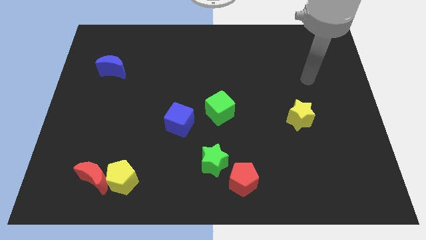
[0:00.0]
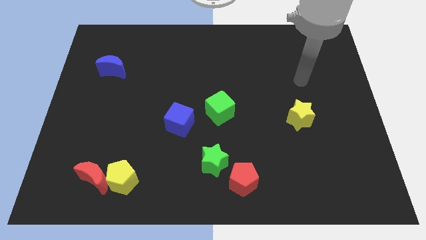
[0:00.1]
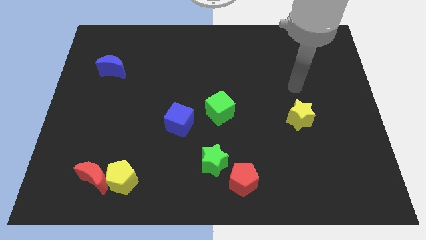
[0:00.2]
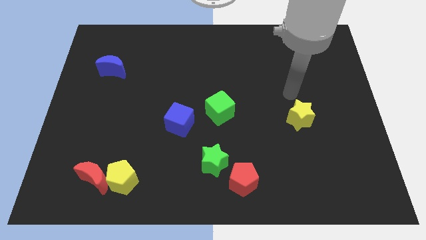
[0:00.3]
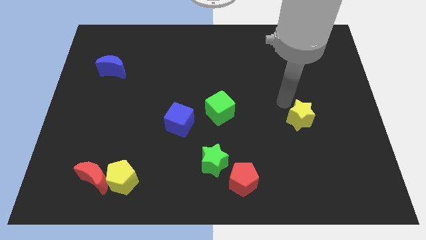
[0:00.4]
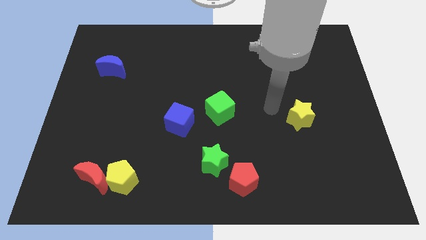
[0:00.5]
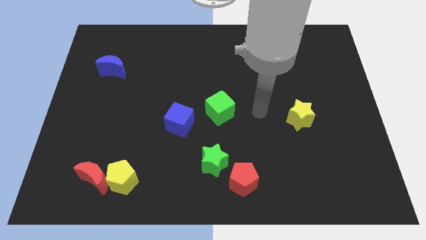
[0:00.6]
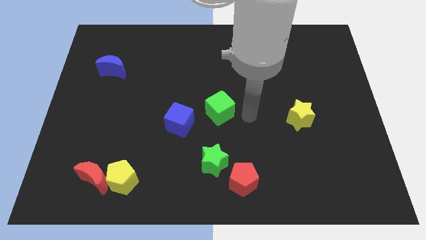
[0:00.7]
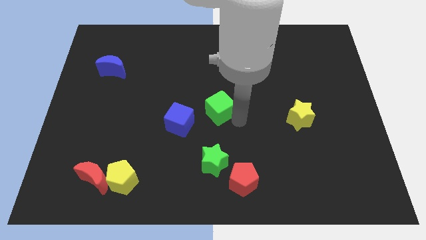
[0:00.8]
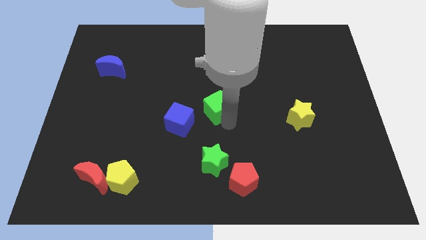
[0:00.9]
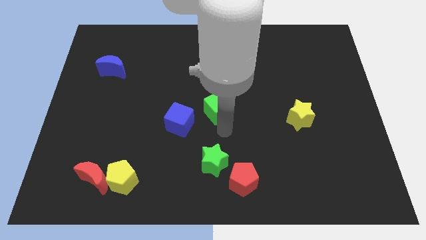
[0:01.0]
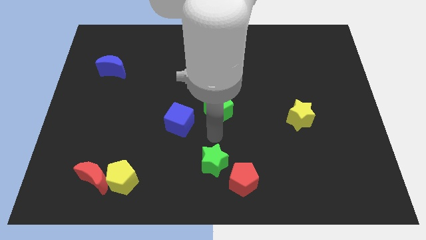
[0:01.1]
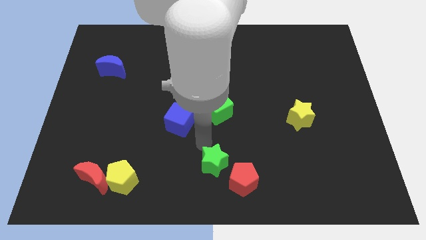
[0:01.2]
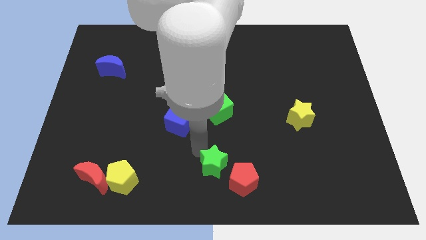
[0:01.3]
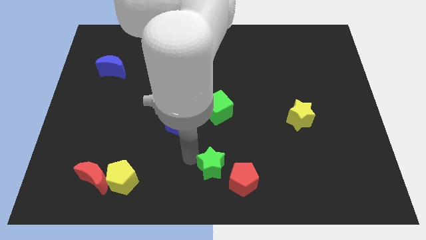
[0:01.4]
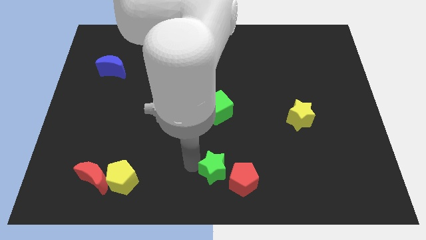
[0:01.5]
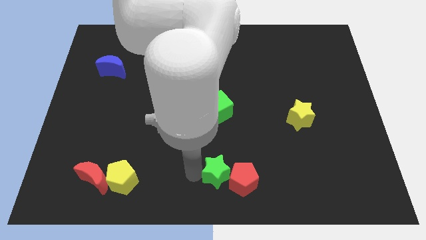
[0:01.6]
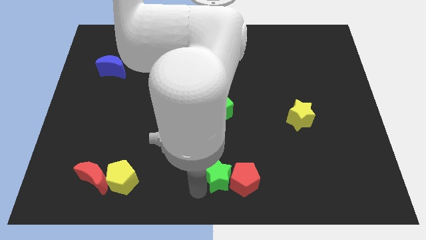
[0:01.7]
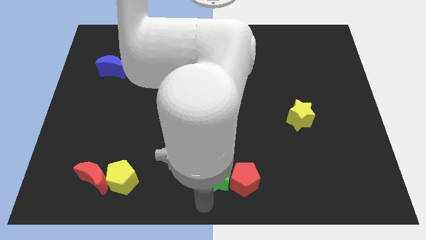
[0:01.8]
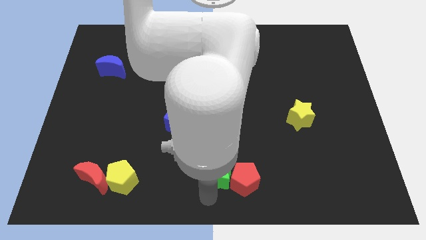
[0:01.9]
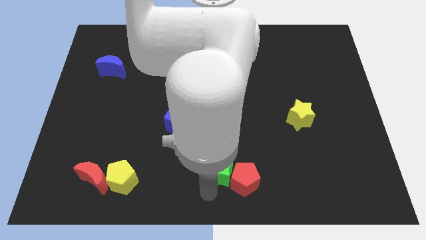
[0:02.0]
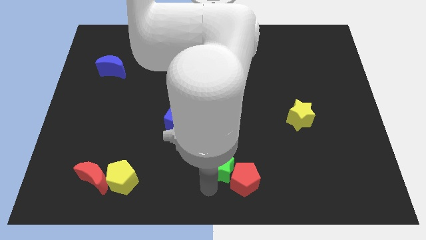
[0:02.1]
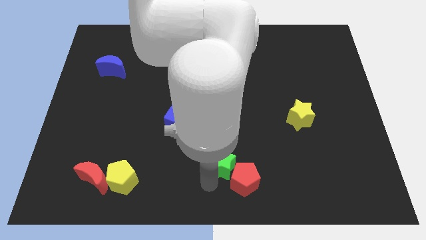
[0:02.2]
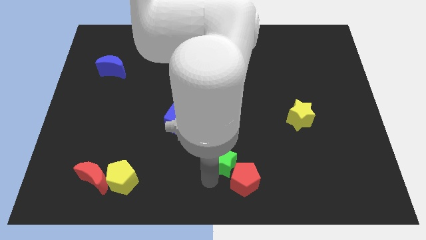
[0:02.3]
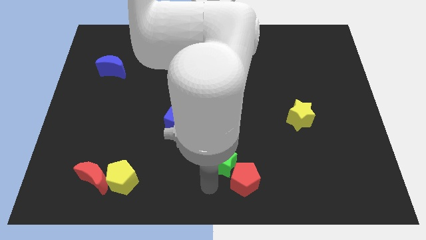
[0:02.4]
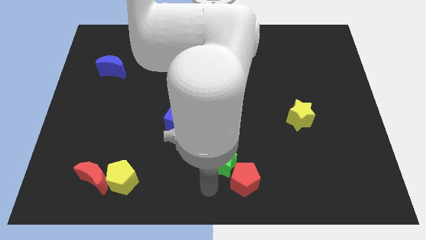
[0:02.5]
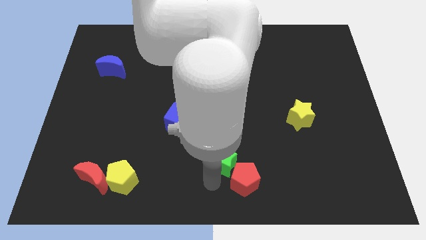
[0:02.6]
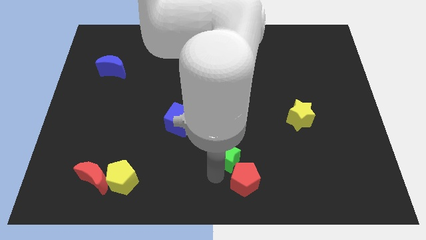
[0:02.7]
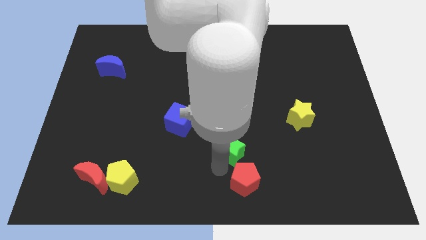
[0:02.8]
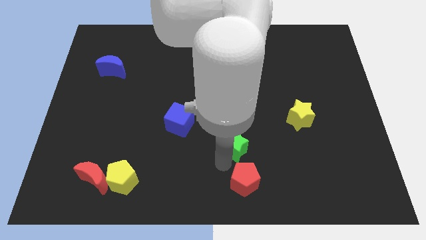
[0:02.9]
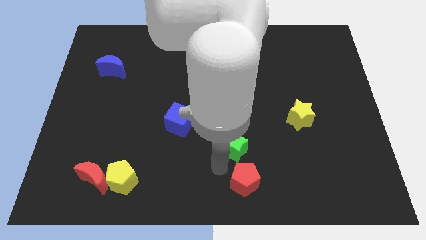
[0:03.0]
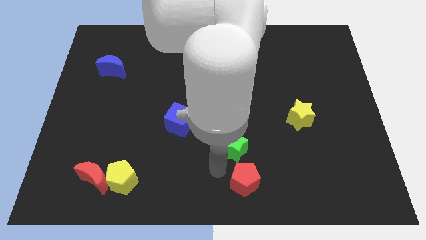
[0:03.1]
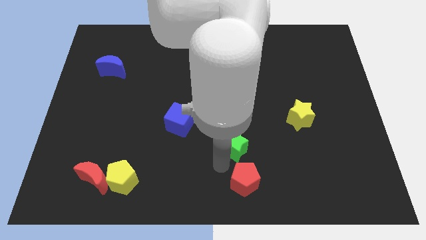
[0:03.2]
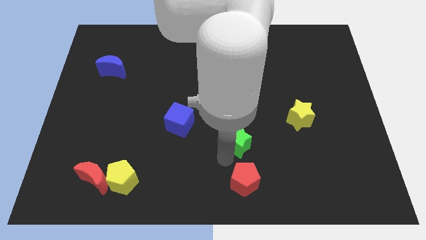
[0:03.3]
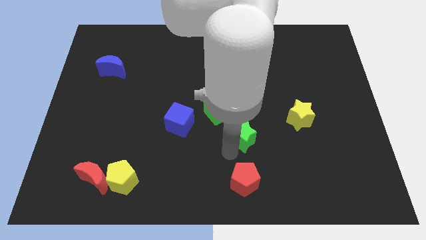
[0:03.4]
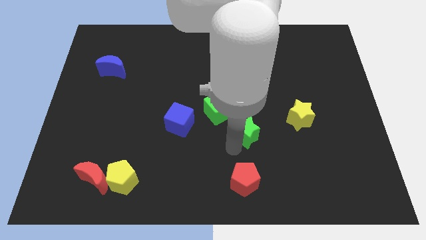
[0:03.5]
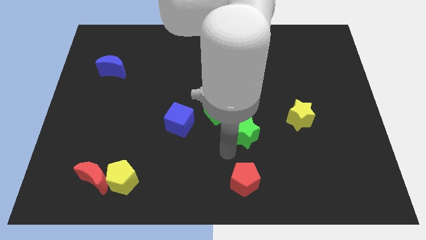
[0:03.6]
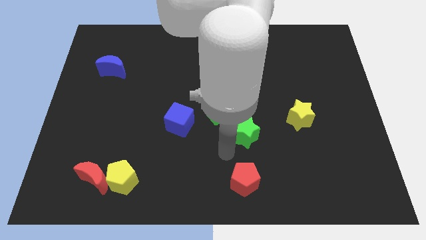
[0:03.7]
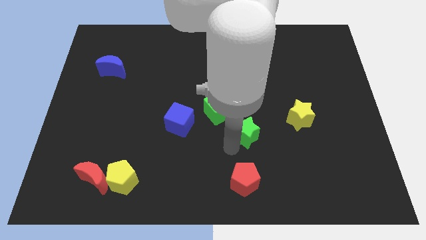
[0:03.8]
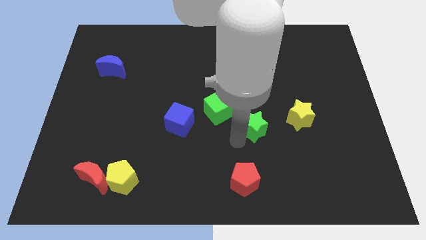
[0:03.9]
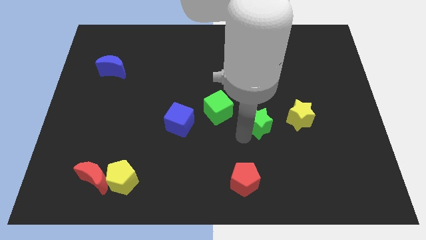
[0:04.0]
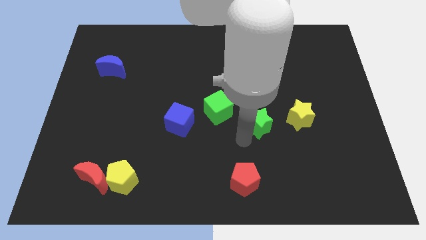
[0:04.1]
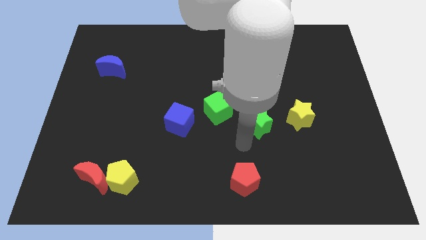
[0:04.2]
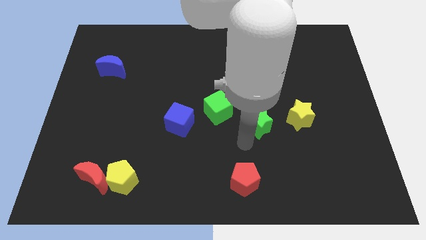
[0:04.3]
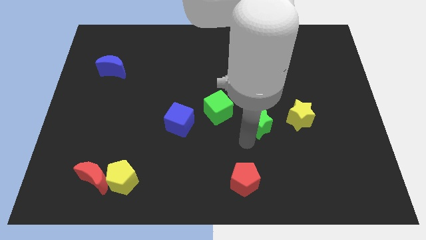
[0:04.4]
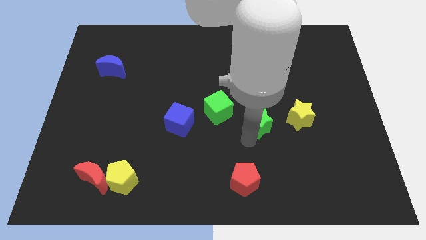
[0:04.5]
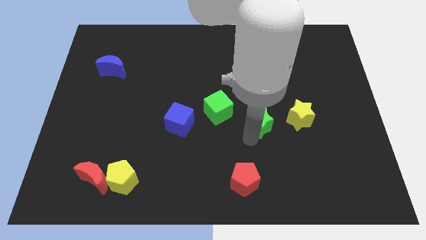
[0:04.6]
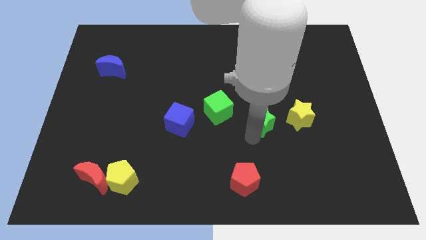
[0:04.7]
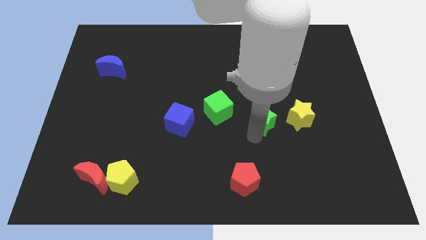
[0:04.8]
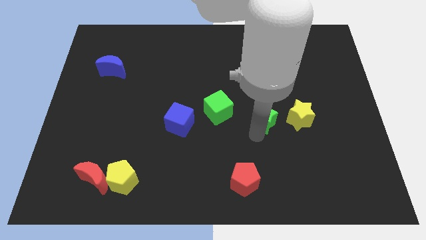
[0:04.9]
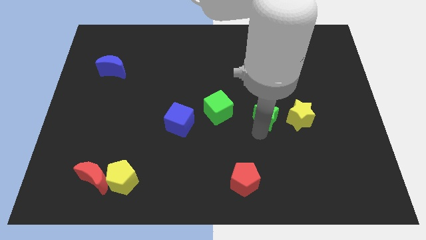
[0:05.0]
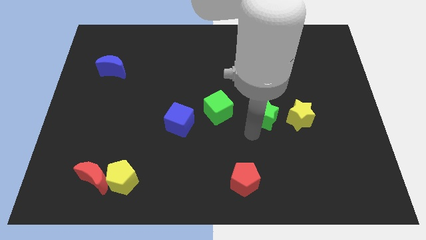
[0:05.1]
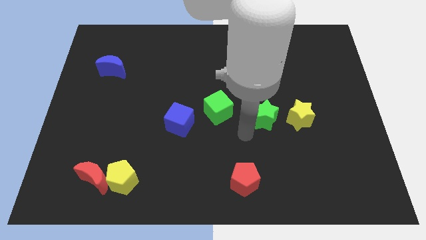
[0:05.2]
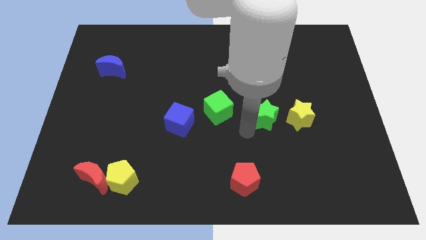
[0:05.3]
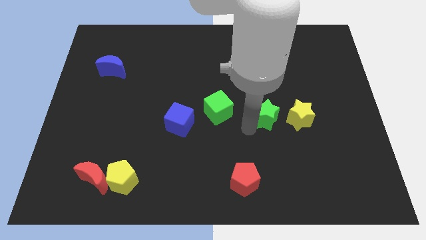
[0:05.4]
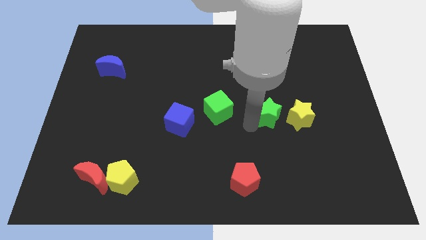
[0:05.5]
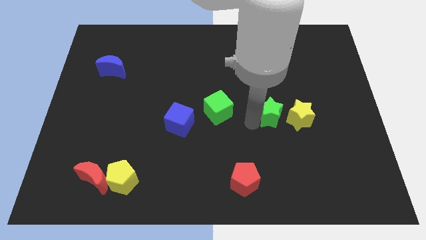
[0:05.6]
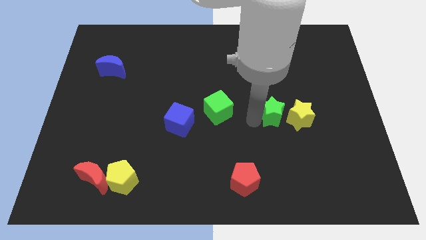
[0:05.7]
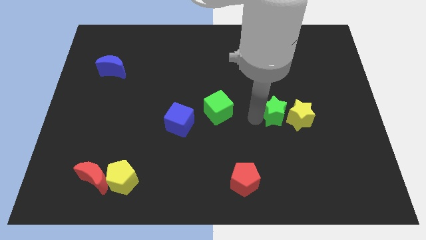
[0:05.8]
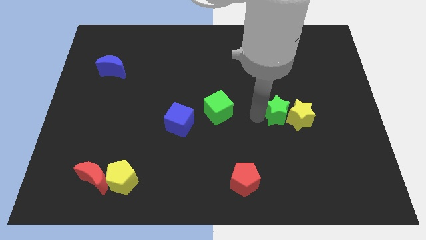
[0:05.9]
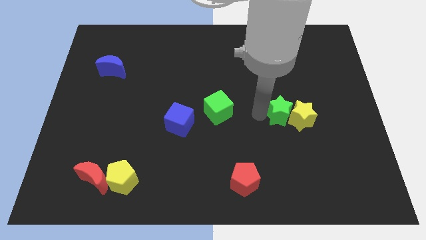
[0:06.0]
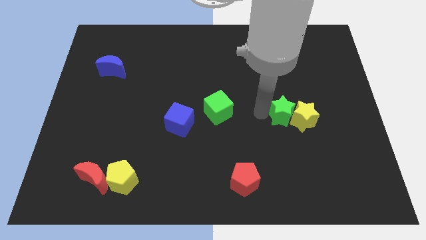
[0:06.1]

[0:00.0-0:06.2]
slide the green star up and then to the right

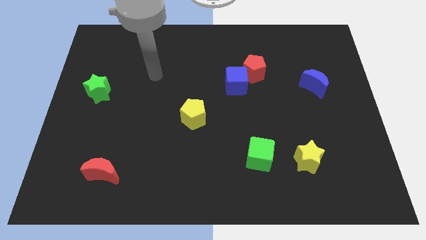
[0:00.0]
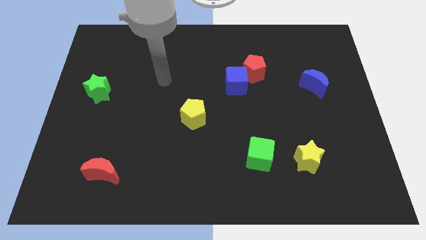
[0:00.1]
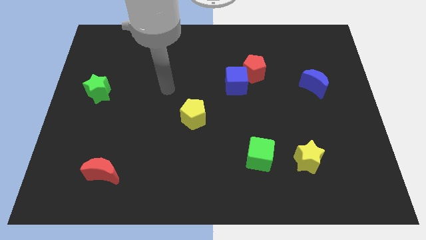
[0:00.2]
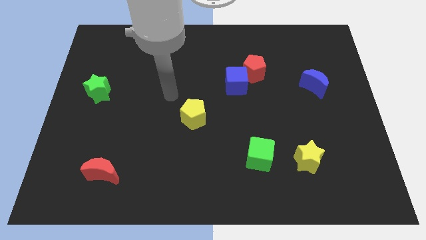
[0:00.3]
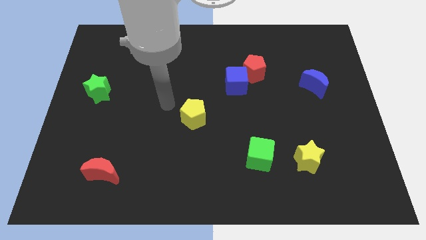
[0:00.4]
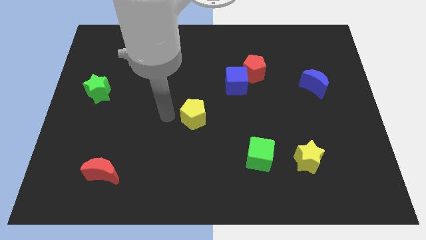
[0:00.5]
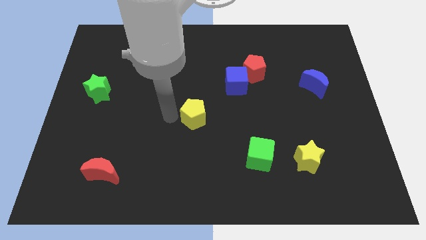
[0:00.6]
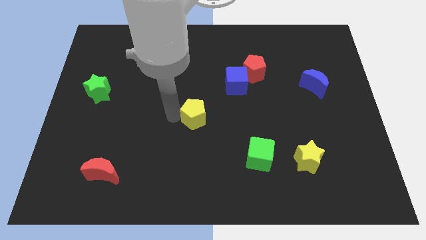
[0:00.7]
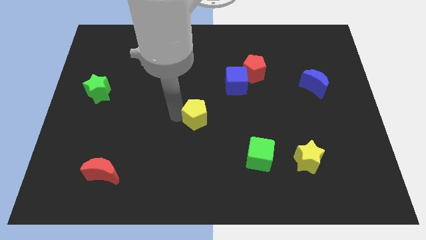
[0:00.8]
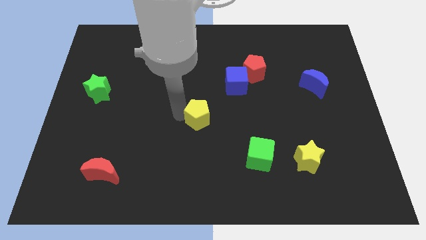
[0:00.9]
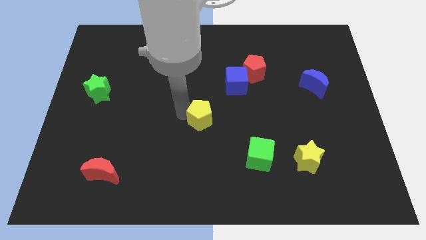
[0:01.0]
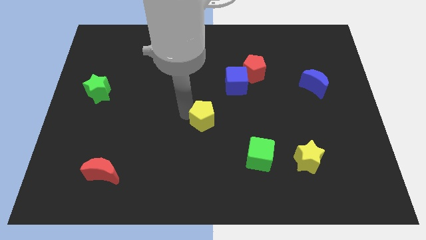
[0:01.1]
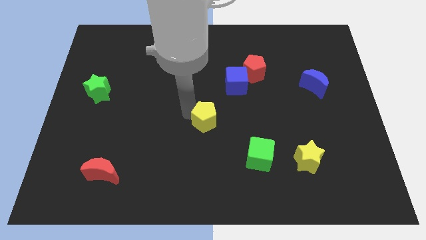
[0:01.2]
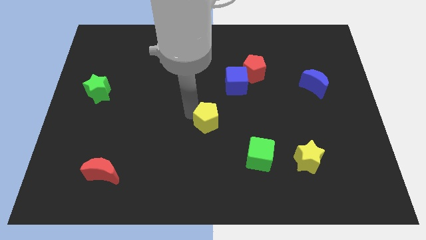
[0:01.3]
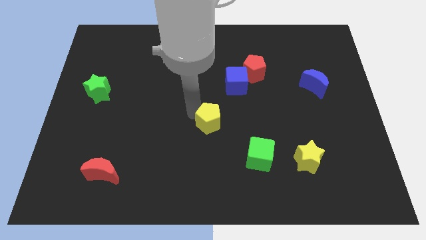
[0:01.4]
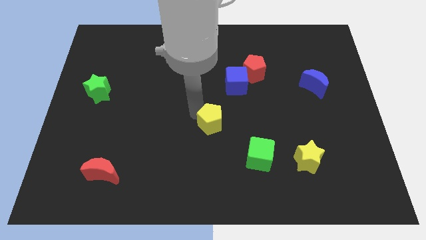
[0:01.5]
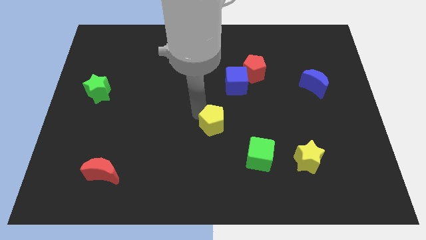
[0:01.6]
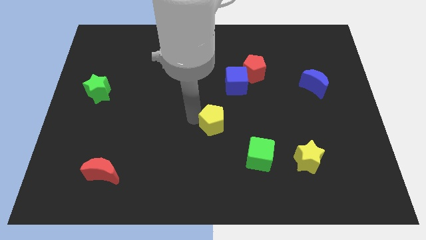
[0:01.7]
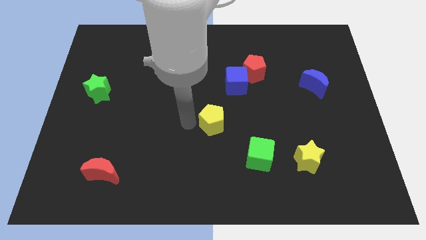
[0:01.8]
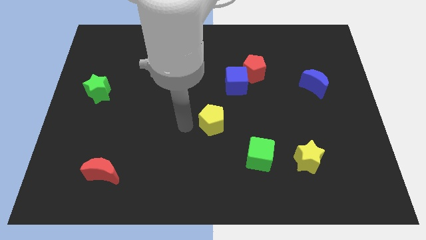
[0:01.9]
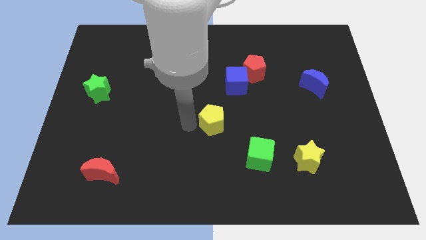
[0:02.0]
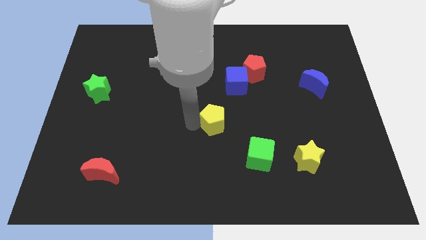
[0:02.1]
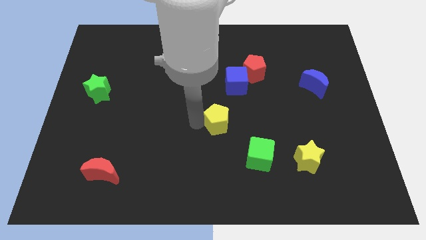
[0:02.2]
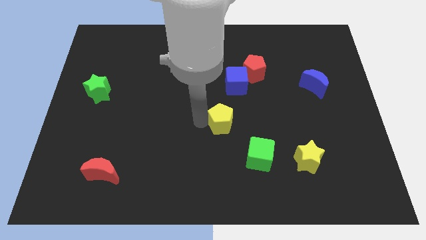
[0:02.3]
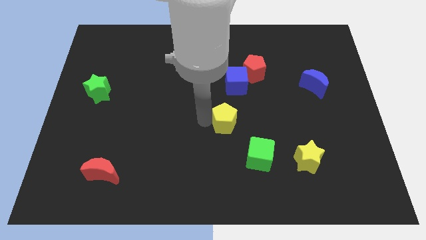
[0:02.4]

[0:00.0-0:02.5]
slightly move the yellow pentagon to the right
